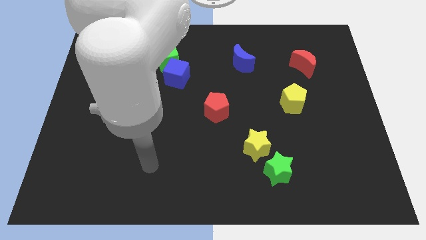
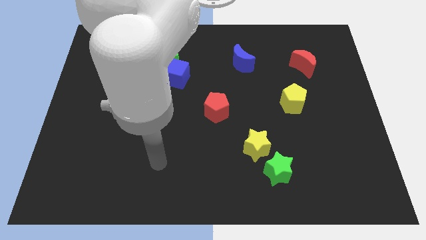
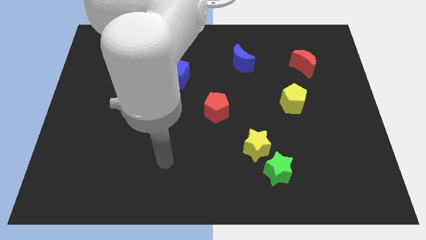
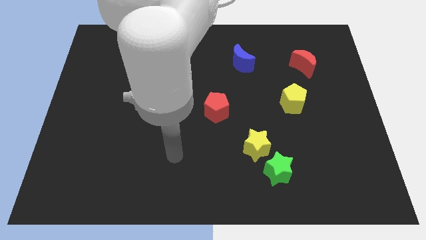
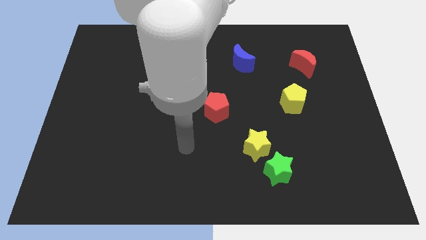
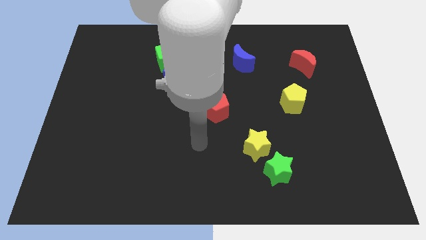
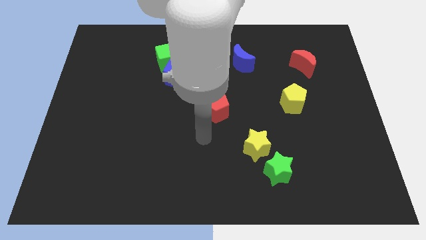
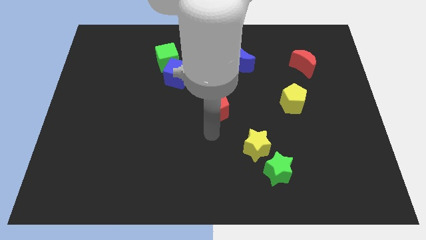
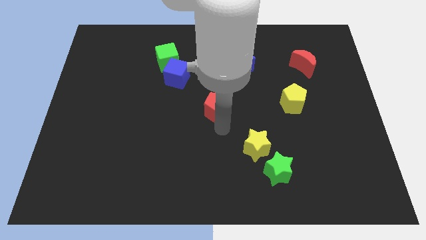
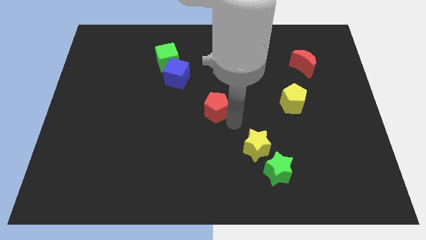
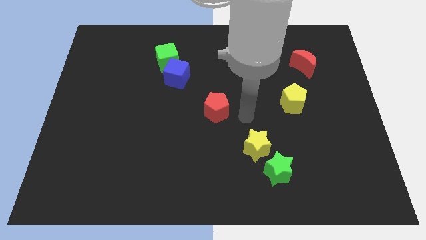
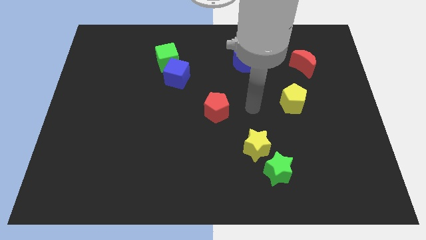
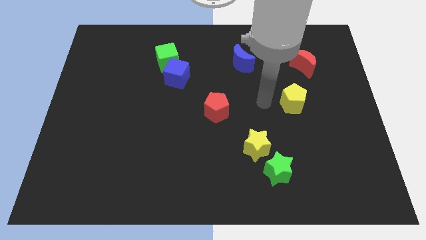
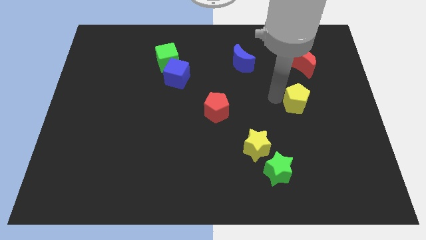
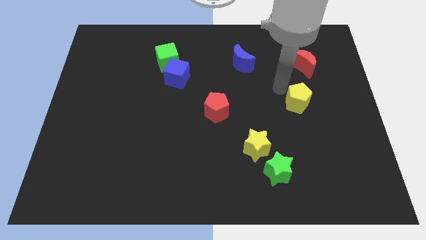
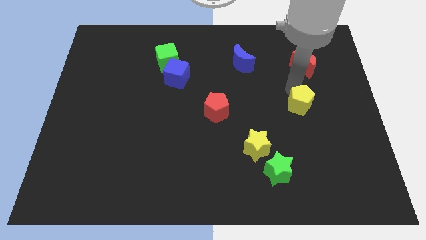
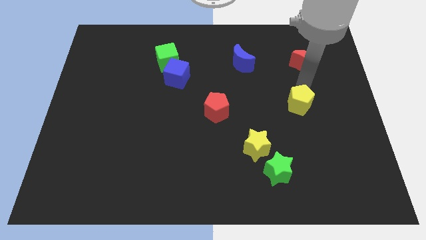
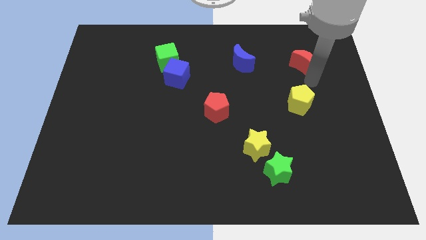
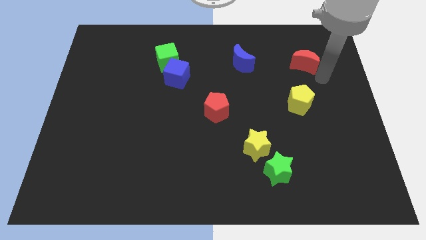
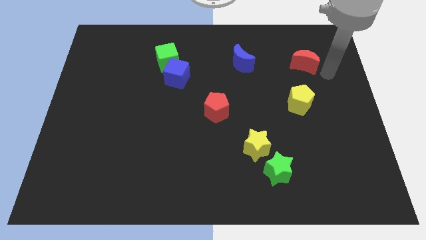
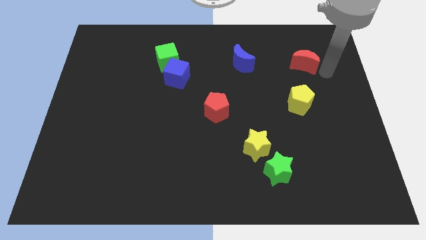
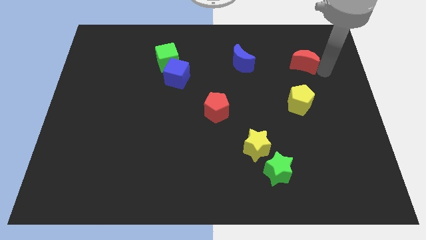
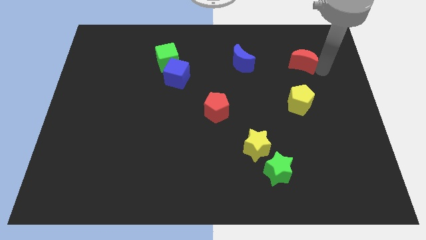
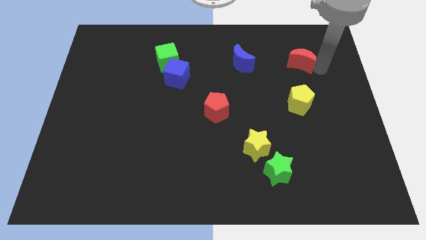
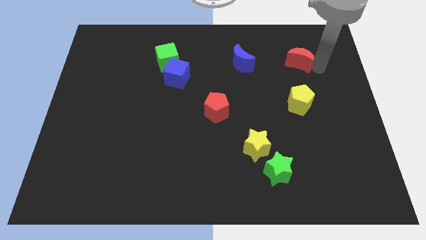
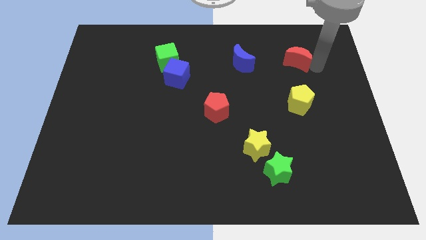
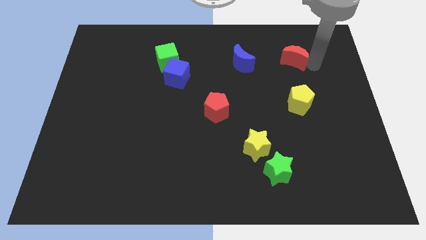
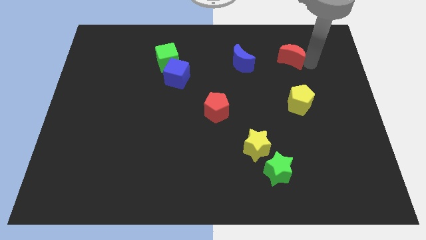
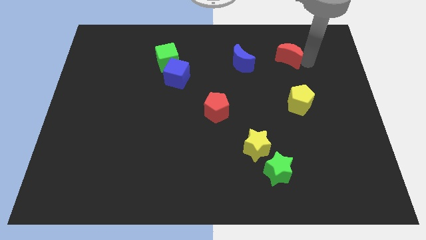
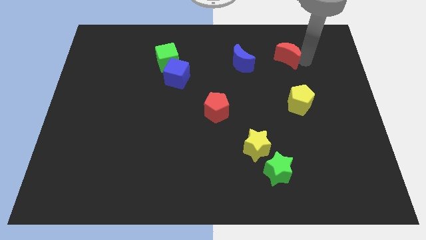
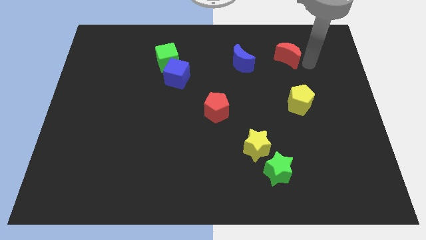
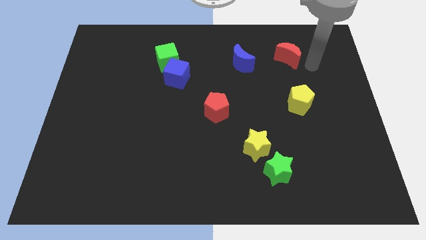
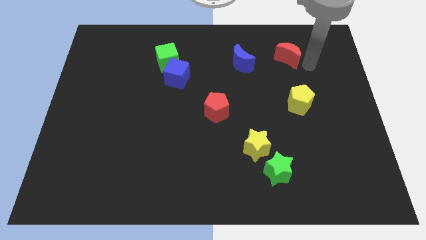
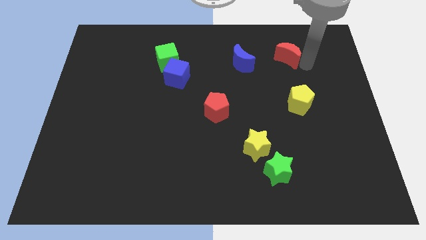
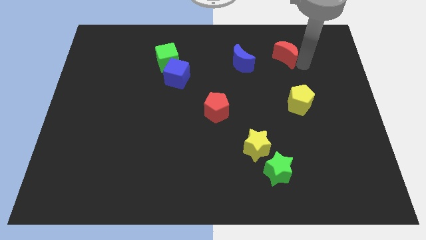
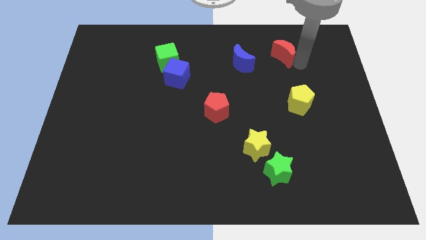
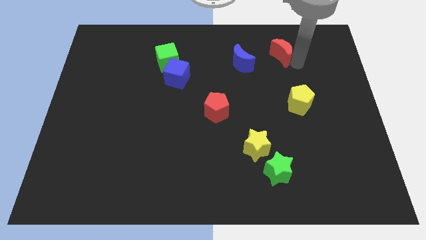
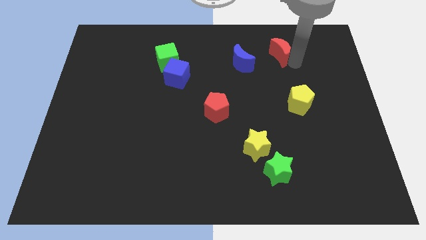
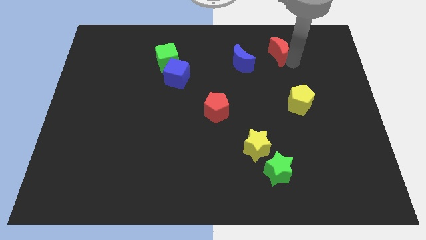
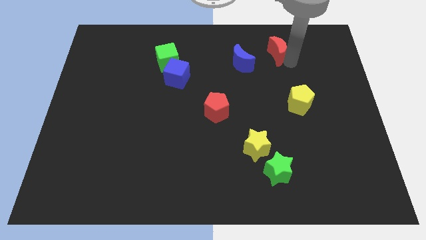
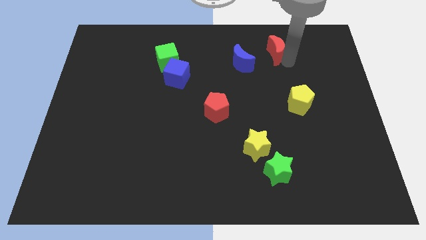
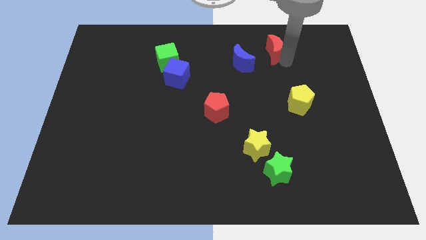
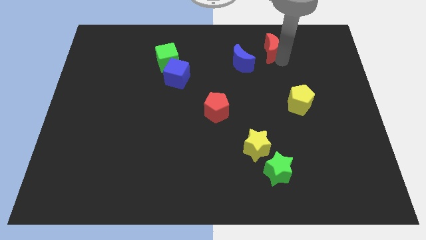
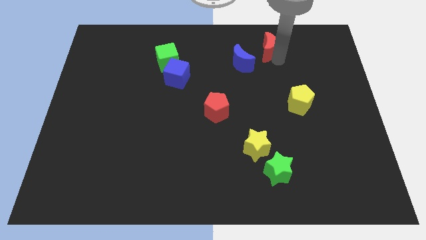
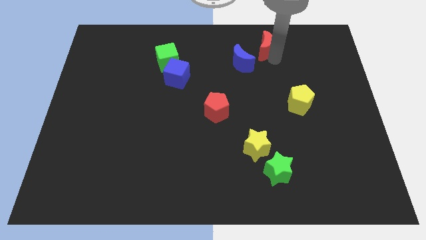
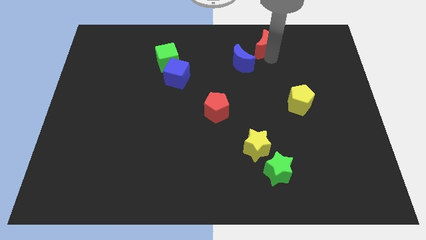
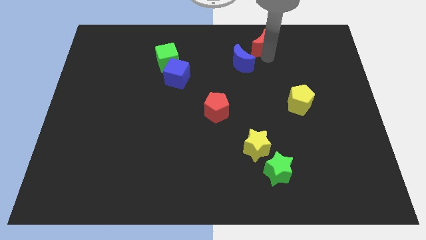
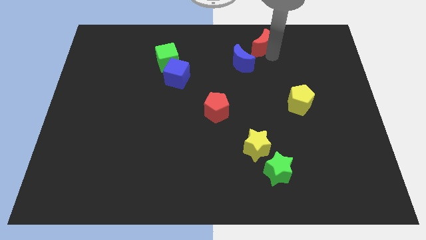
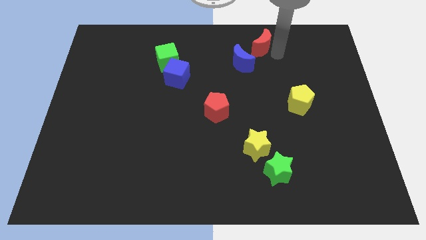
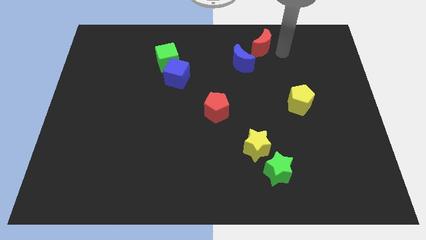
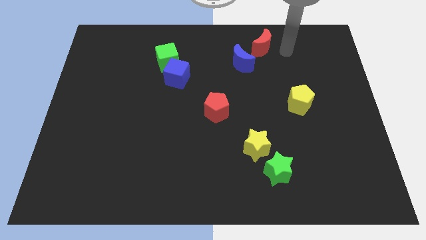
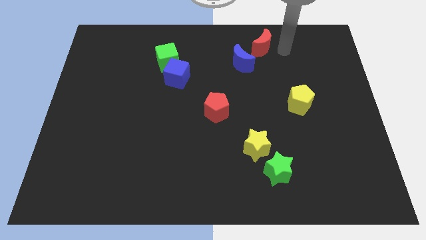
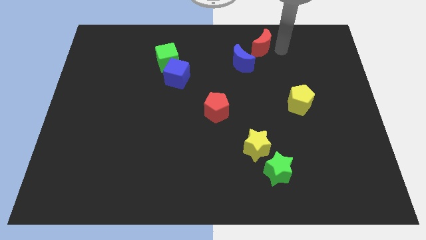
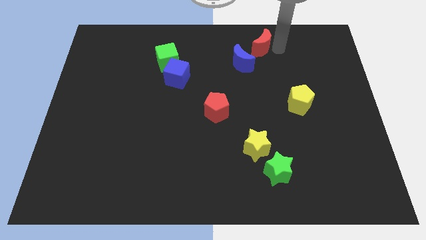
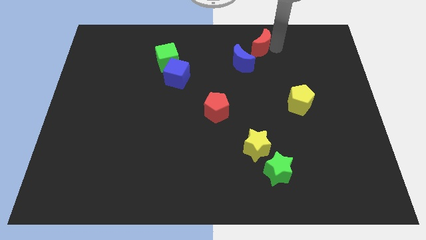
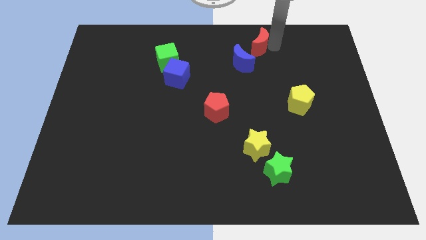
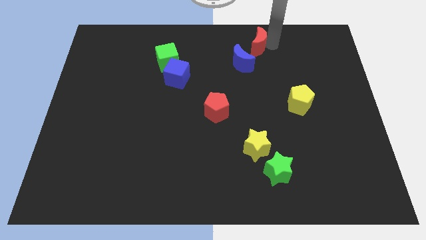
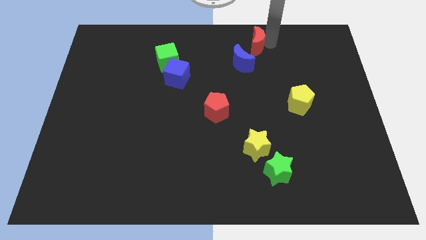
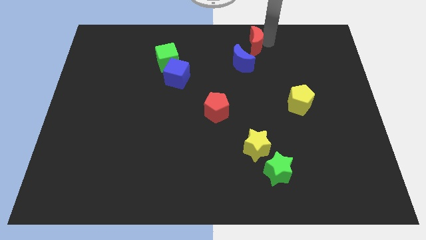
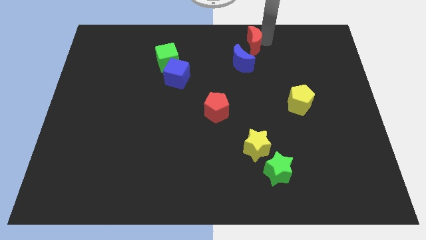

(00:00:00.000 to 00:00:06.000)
move the red moon to the top side
